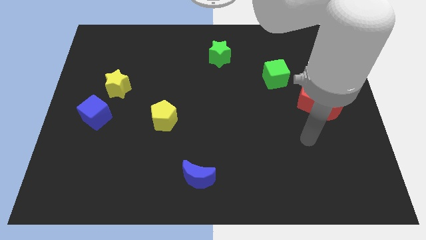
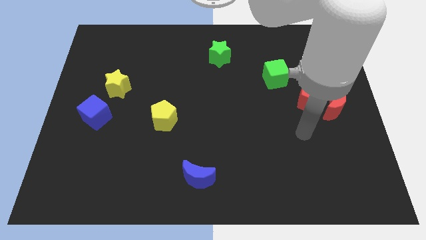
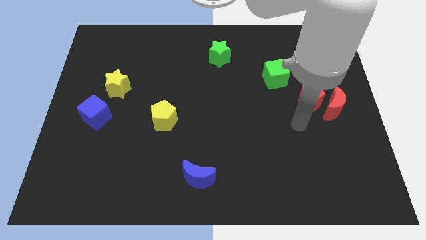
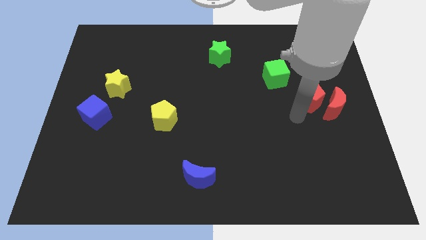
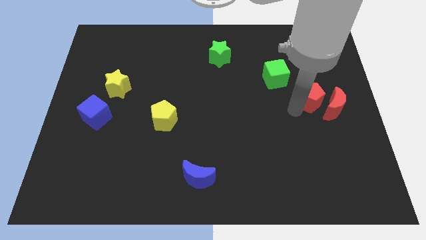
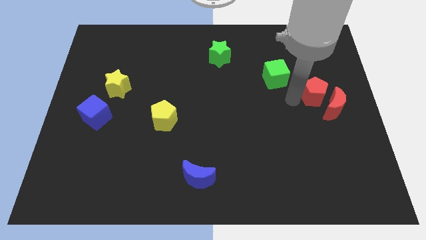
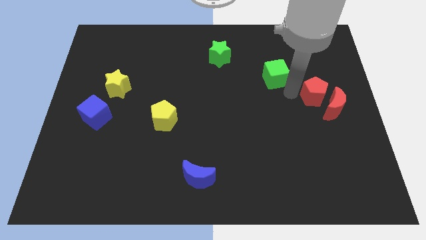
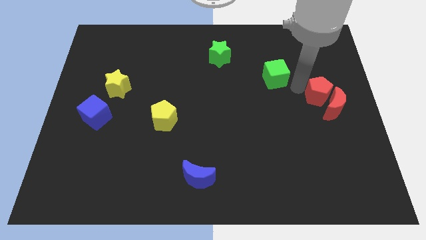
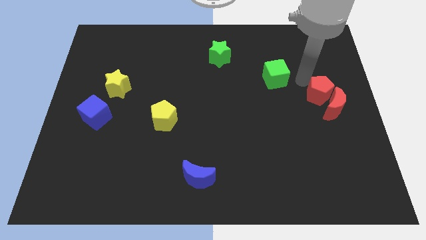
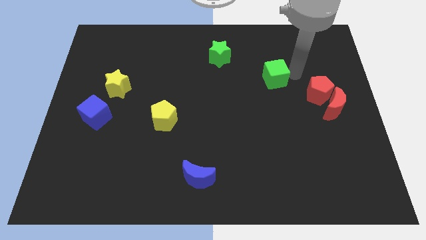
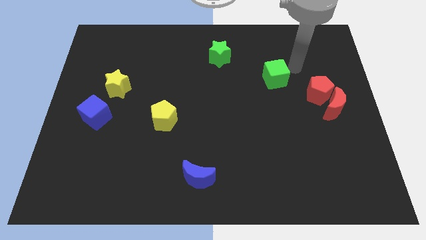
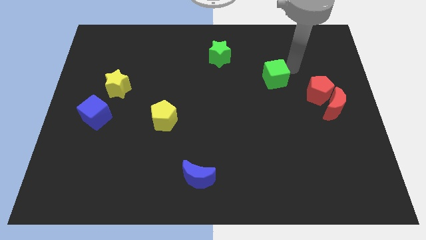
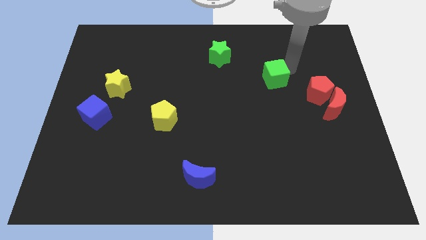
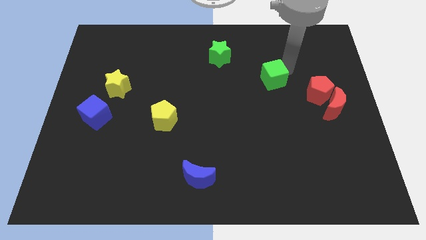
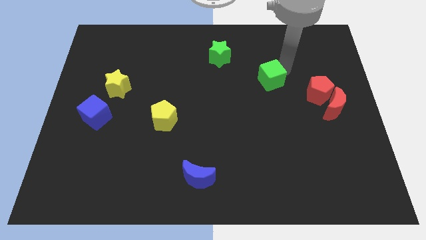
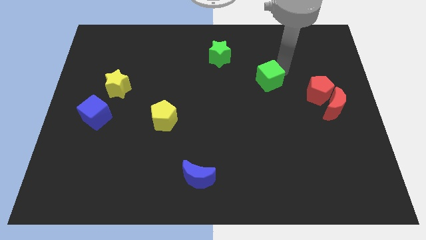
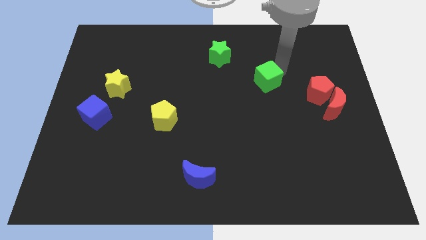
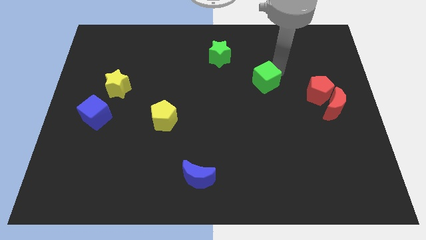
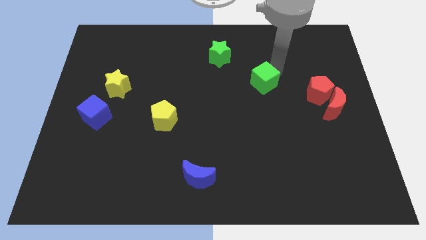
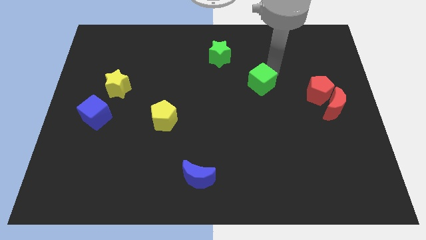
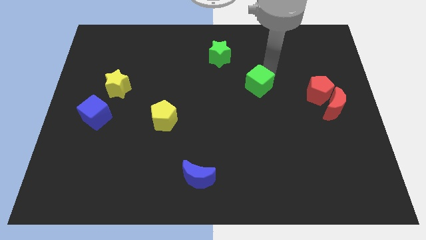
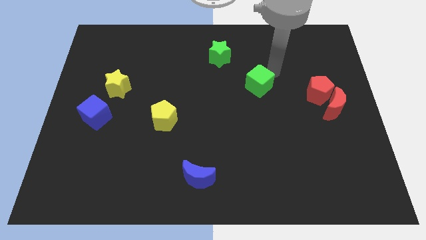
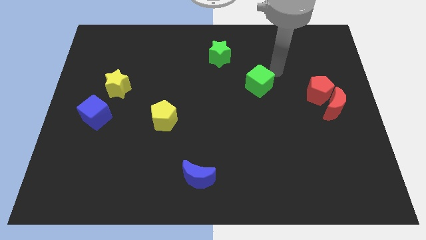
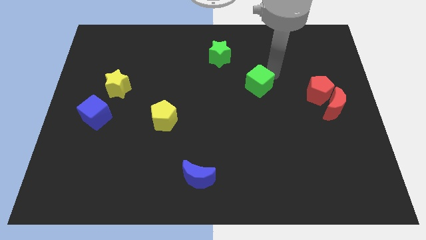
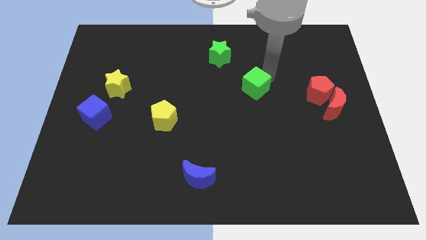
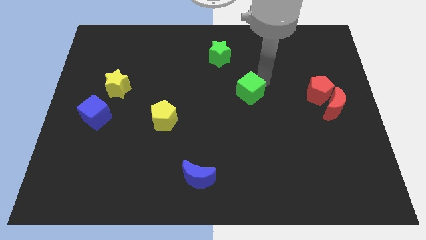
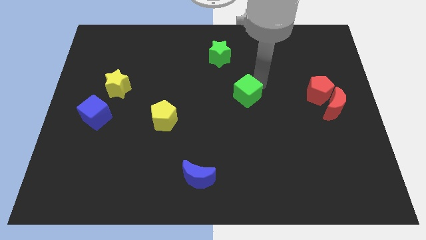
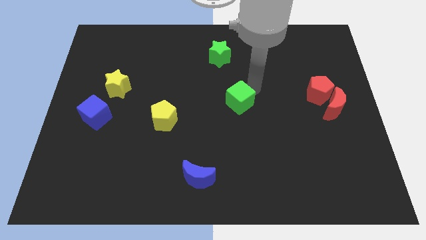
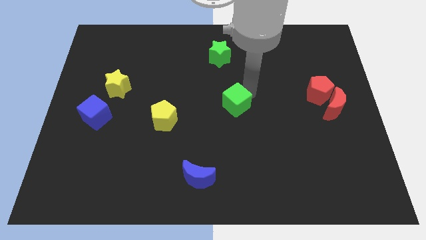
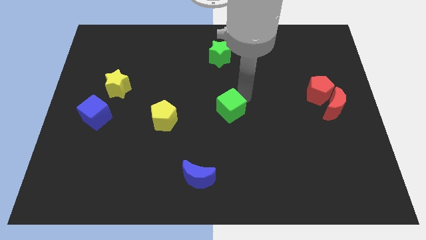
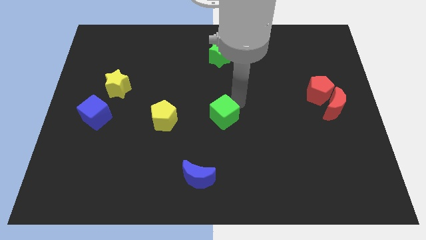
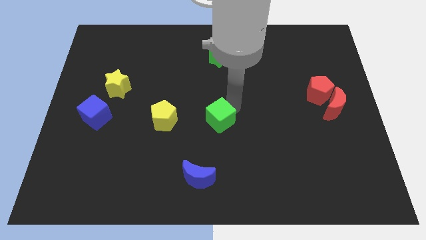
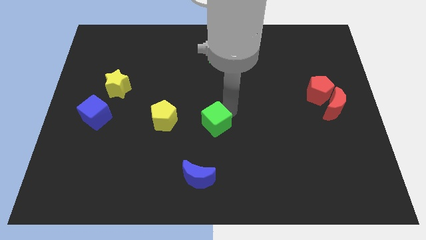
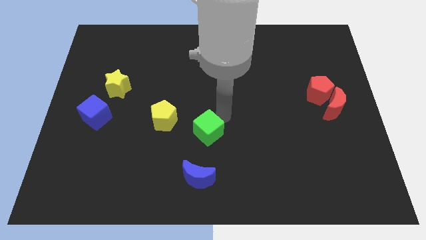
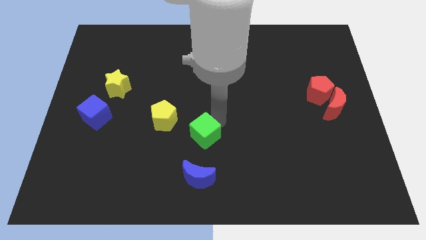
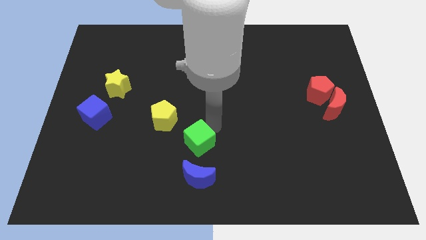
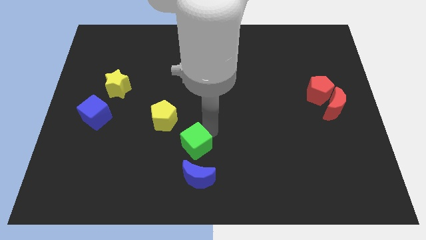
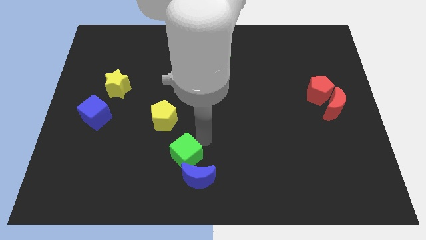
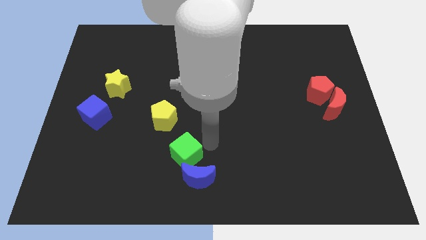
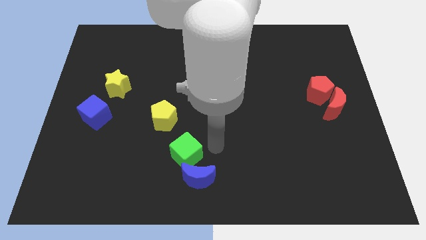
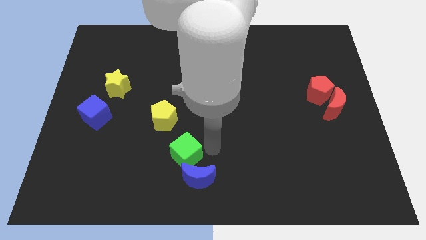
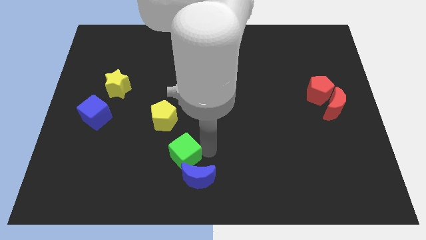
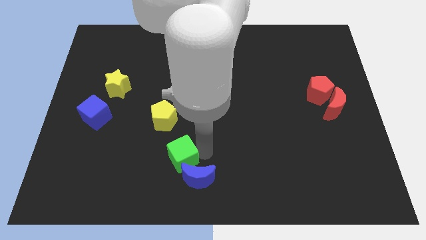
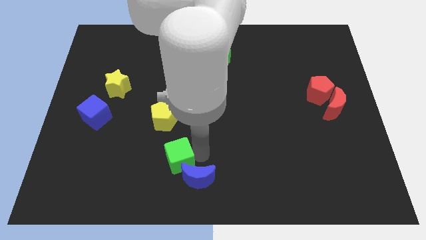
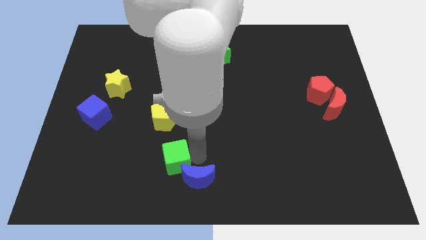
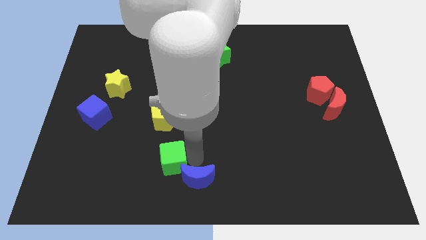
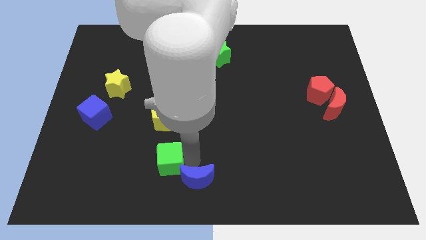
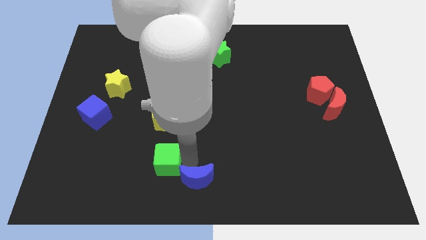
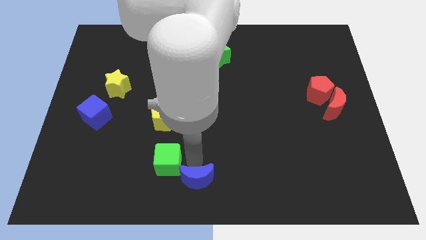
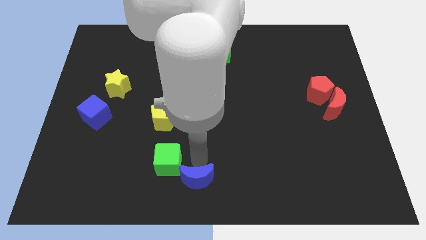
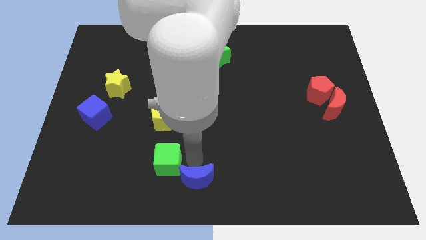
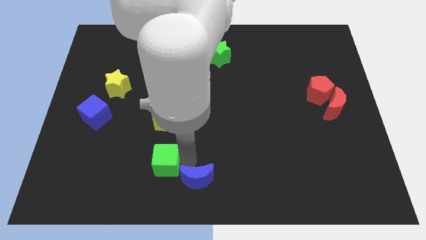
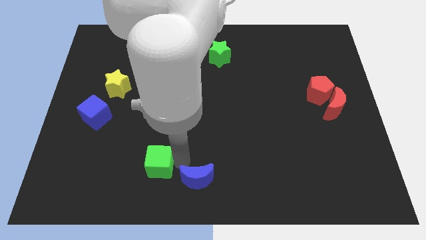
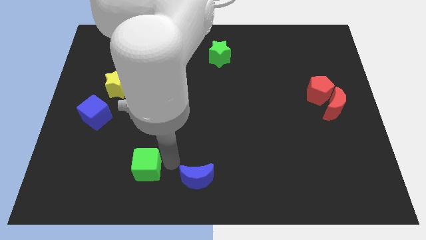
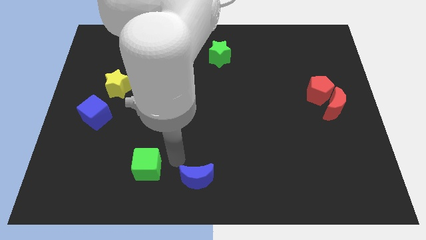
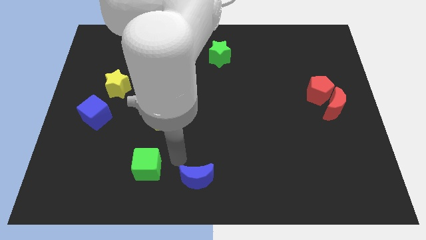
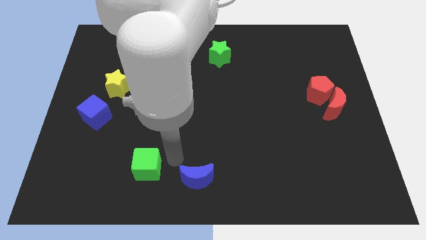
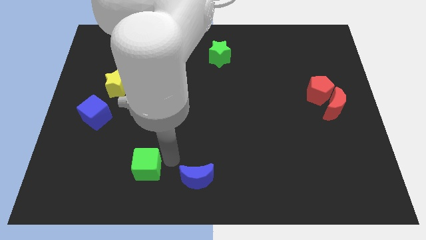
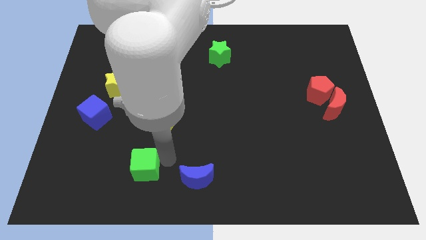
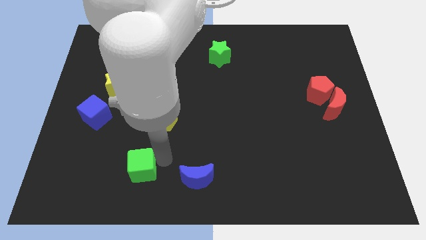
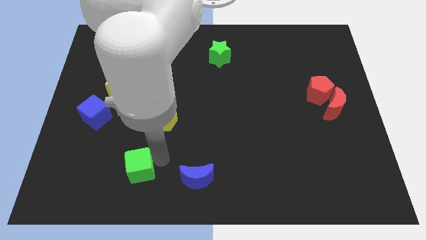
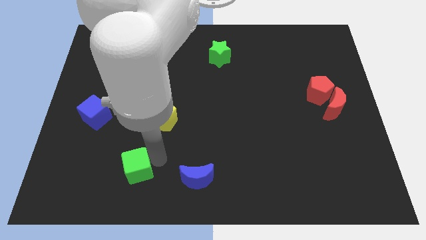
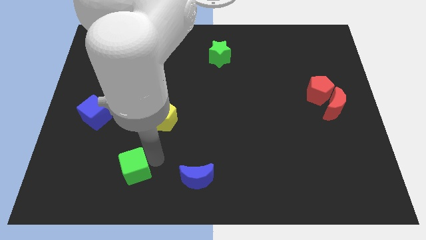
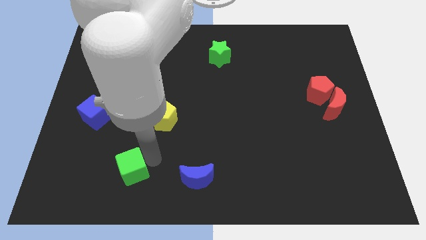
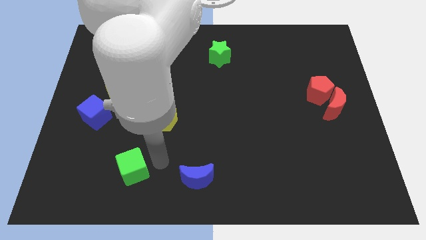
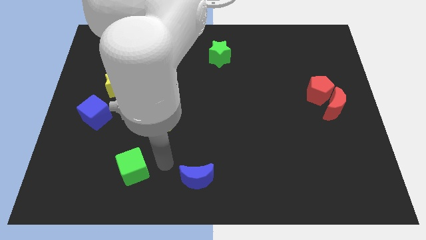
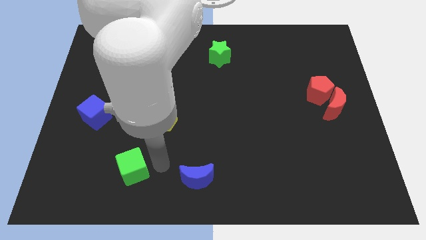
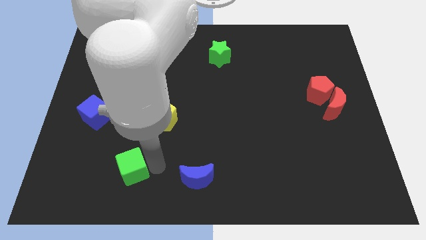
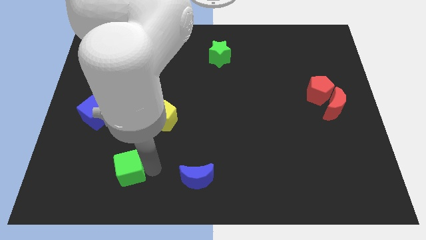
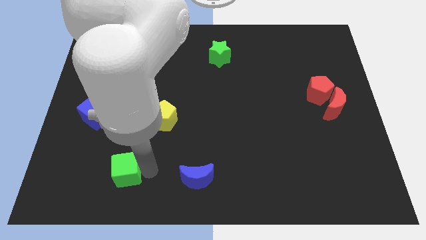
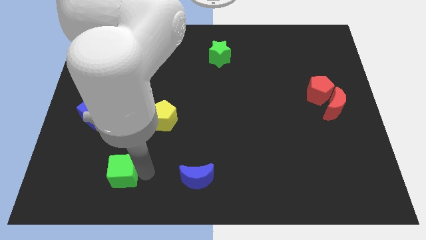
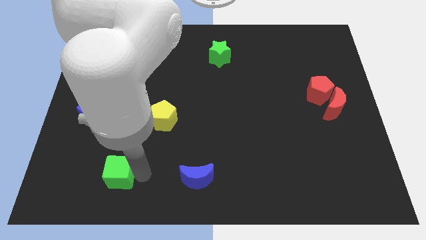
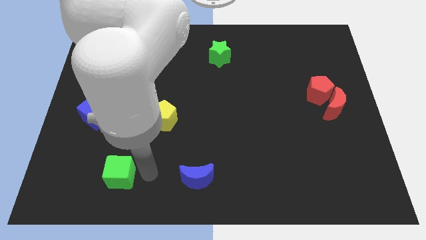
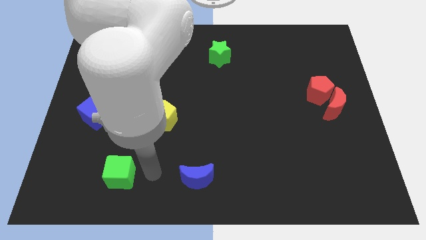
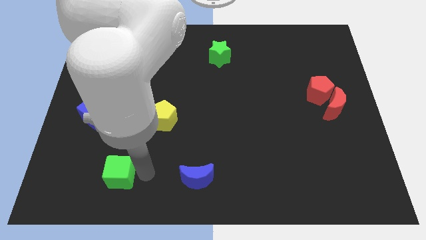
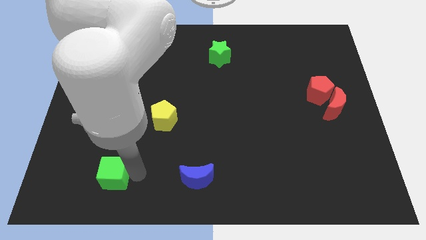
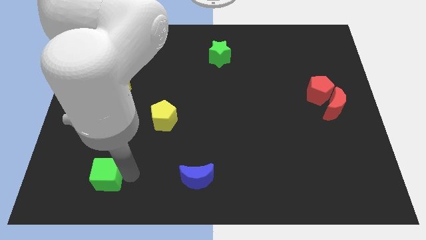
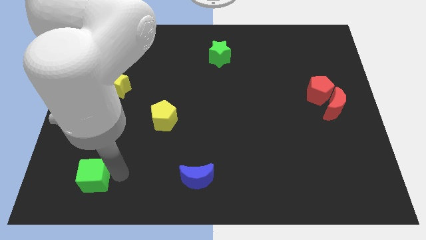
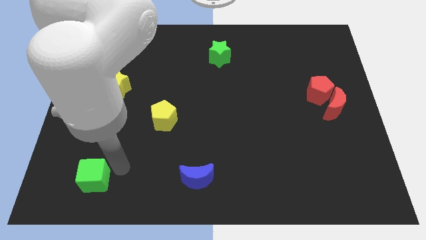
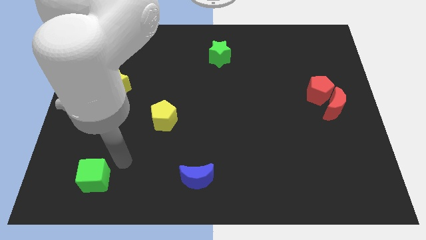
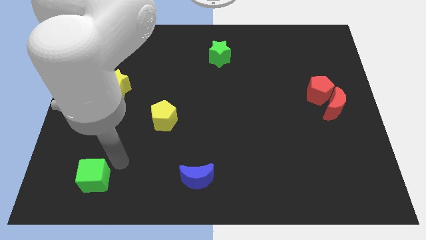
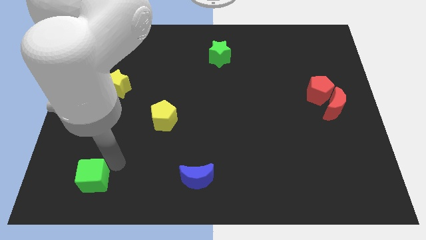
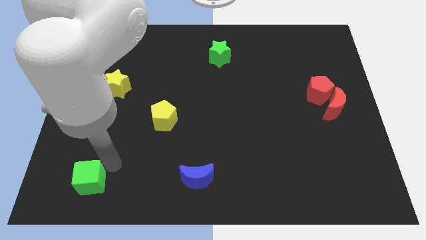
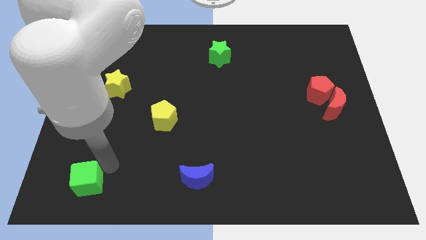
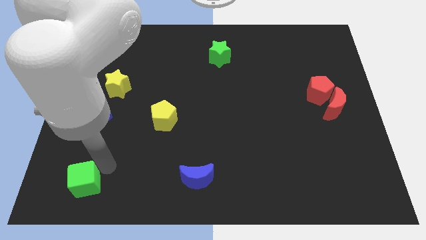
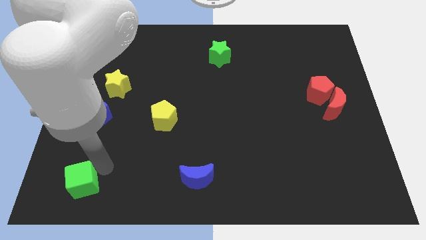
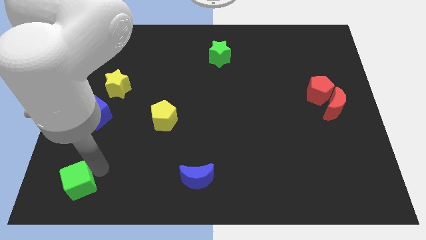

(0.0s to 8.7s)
move the green cube to the bottom left
